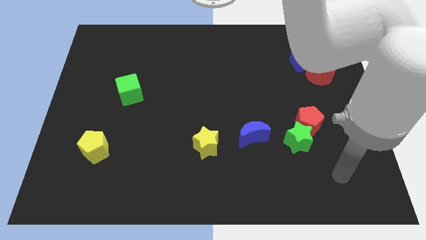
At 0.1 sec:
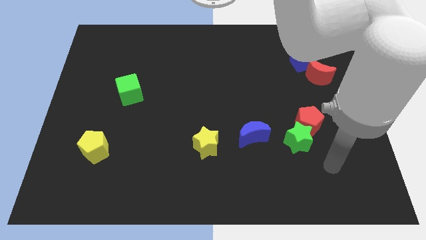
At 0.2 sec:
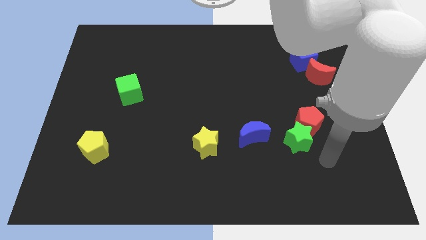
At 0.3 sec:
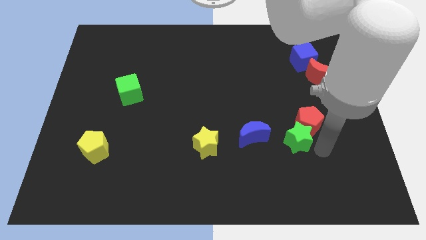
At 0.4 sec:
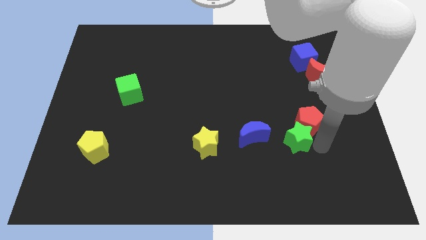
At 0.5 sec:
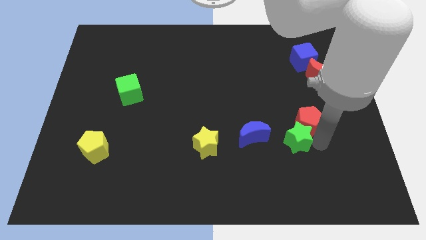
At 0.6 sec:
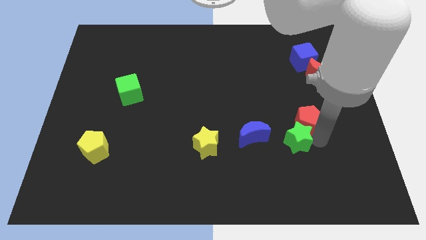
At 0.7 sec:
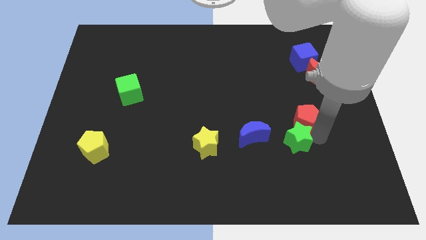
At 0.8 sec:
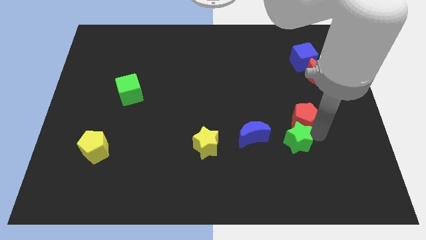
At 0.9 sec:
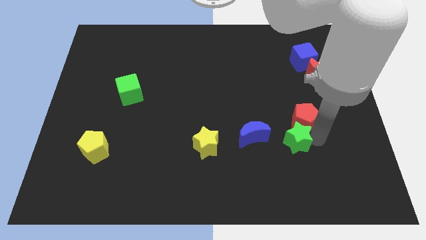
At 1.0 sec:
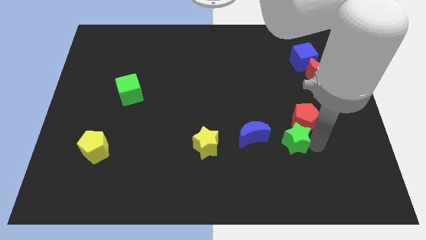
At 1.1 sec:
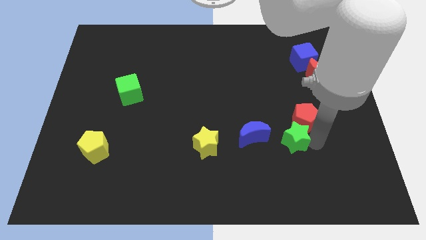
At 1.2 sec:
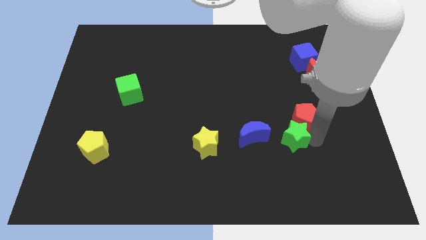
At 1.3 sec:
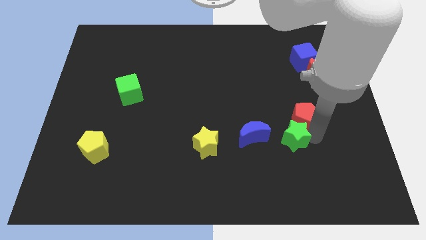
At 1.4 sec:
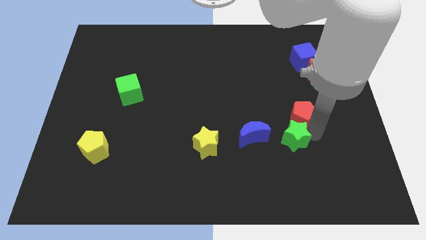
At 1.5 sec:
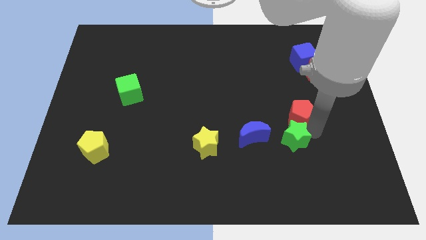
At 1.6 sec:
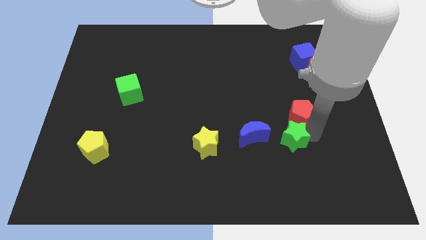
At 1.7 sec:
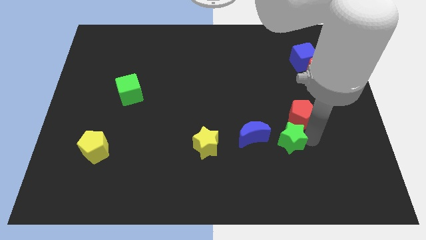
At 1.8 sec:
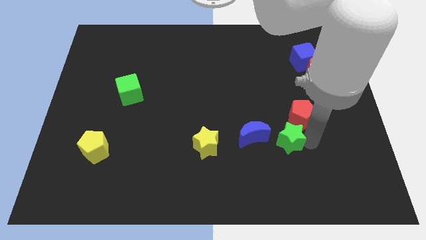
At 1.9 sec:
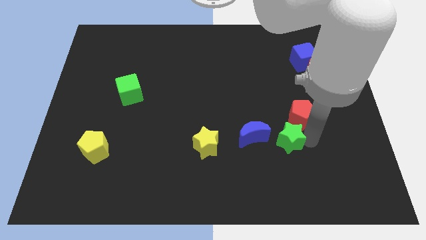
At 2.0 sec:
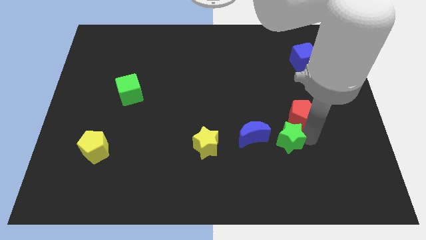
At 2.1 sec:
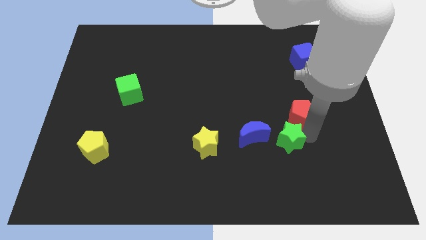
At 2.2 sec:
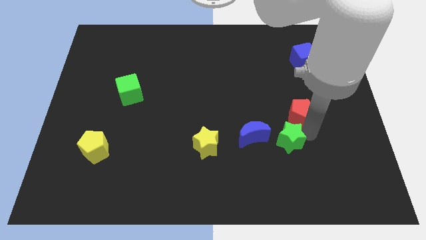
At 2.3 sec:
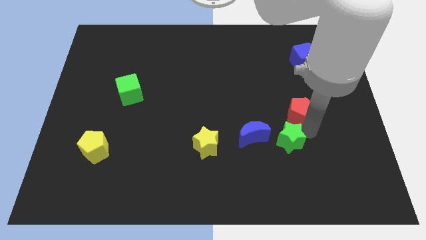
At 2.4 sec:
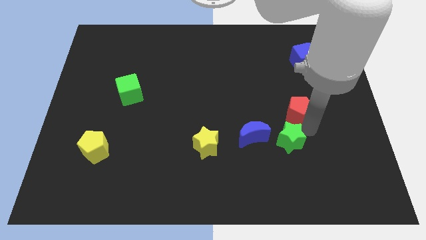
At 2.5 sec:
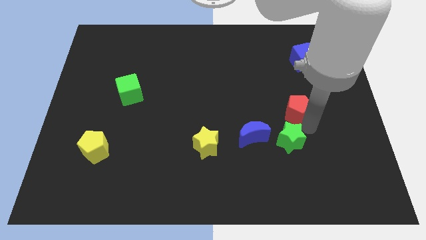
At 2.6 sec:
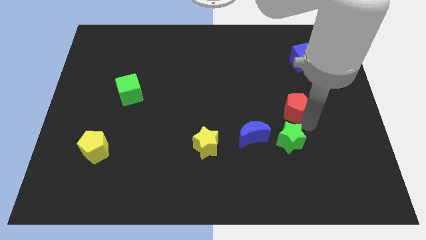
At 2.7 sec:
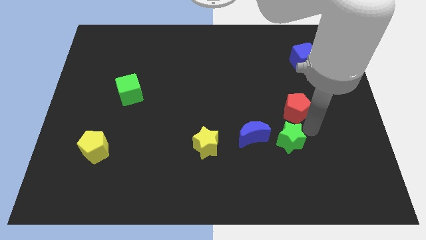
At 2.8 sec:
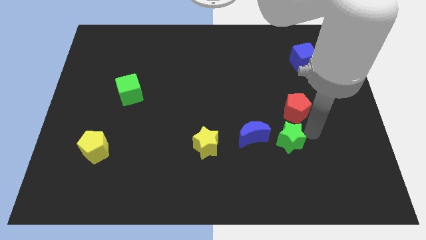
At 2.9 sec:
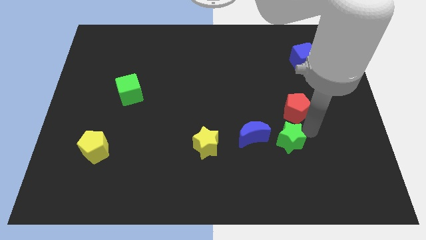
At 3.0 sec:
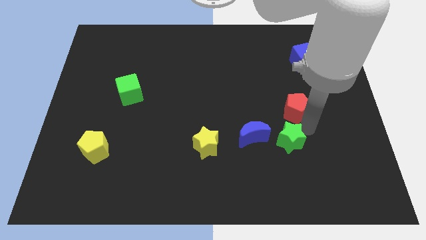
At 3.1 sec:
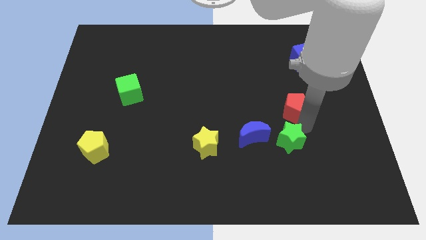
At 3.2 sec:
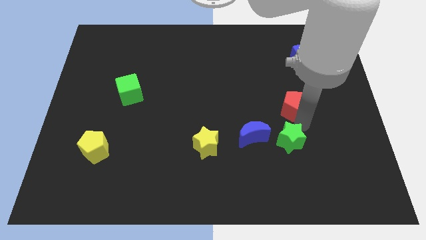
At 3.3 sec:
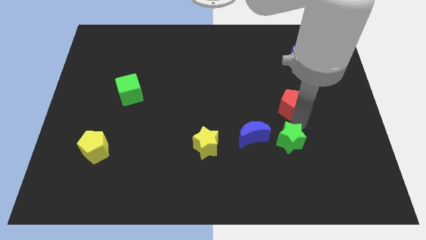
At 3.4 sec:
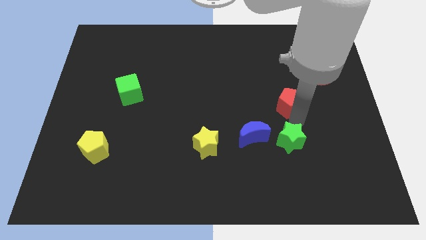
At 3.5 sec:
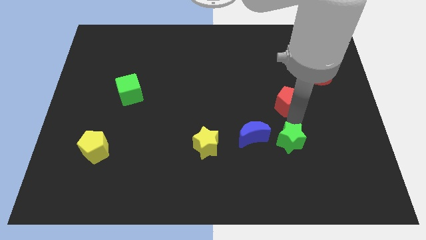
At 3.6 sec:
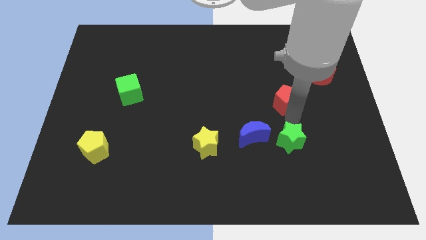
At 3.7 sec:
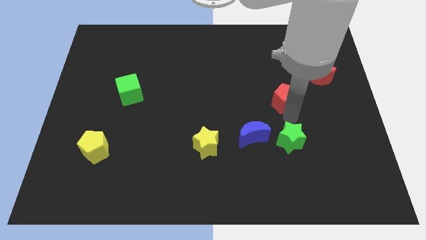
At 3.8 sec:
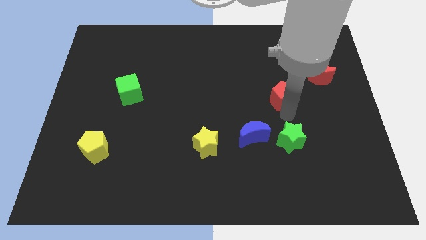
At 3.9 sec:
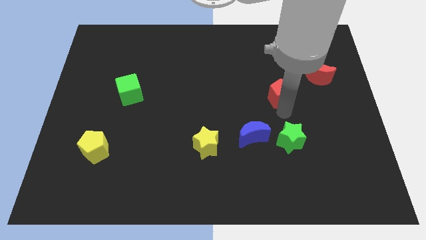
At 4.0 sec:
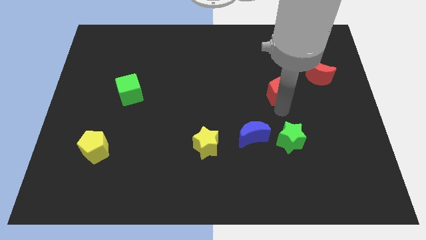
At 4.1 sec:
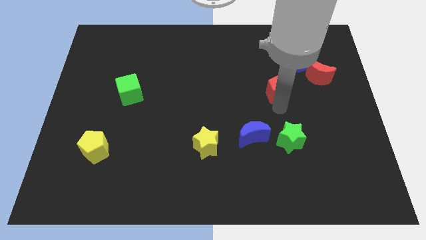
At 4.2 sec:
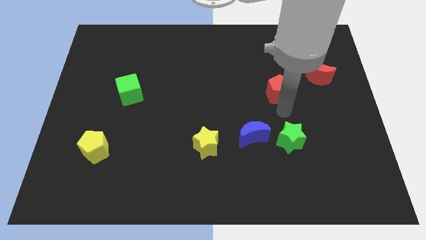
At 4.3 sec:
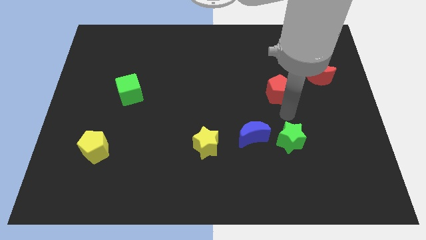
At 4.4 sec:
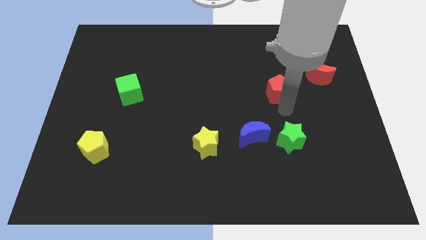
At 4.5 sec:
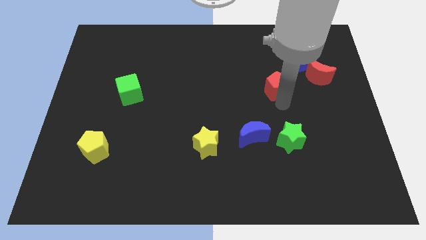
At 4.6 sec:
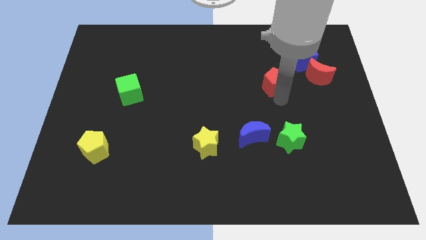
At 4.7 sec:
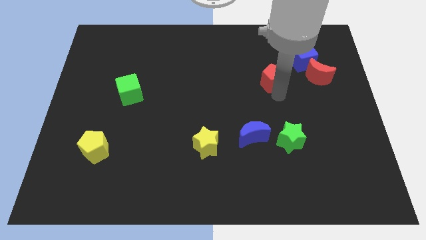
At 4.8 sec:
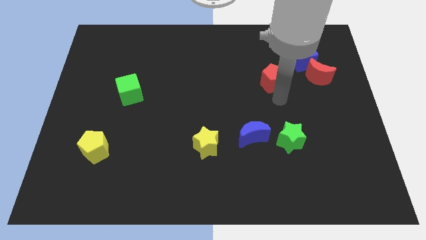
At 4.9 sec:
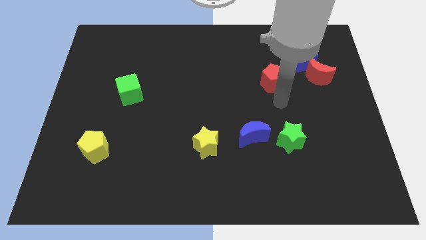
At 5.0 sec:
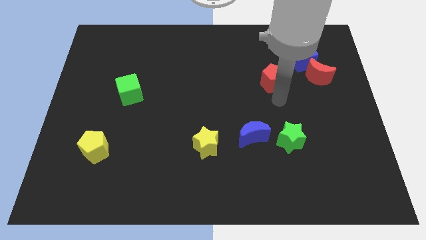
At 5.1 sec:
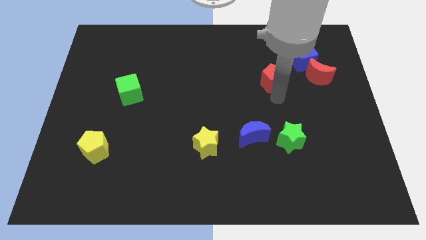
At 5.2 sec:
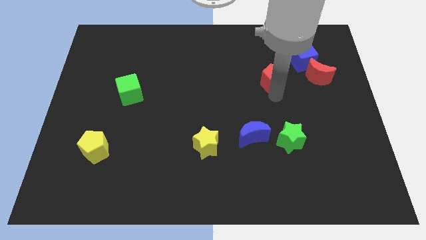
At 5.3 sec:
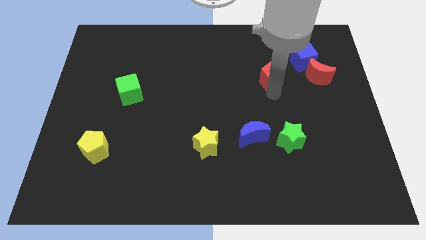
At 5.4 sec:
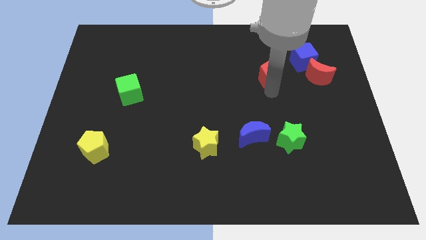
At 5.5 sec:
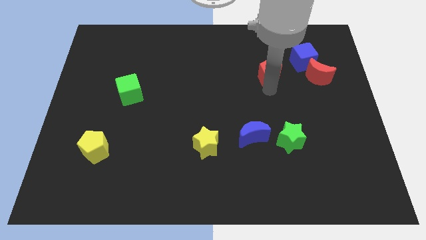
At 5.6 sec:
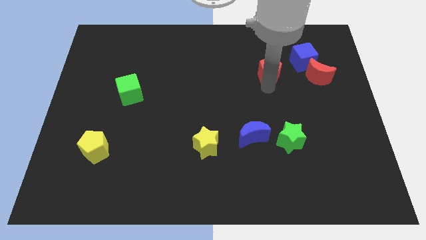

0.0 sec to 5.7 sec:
move the red pentagon to the left side of the blue cube
